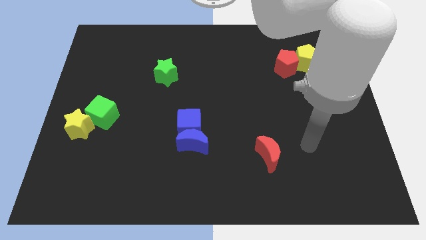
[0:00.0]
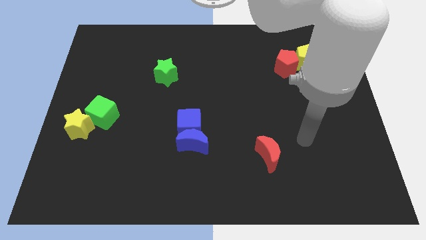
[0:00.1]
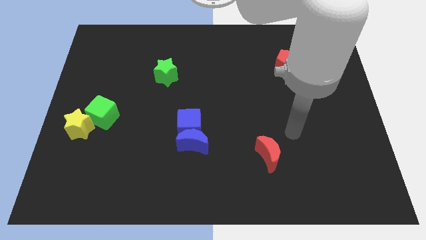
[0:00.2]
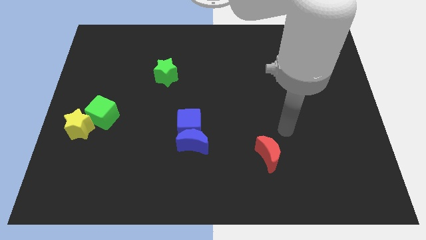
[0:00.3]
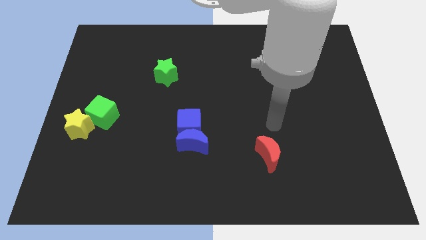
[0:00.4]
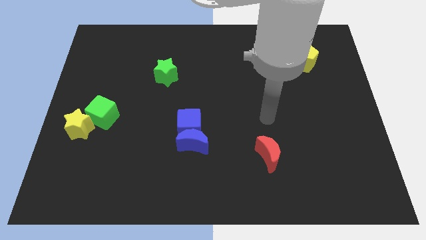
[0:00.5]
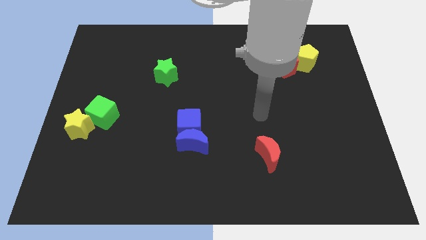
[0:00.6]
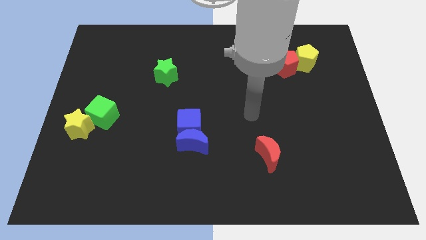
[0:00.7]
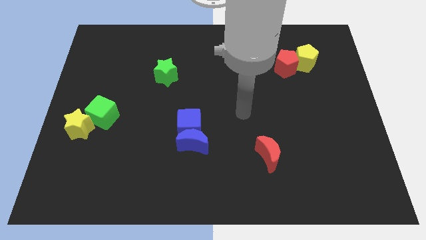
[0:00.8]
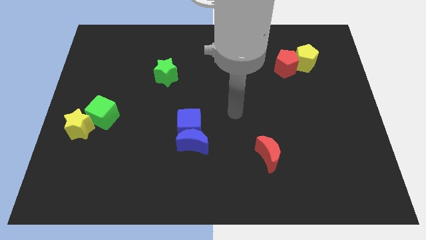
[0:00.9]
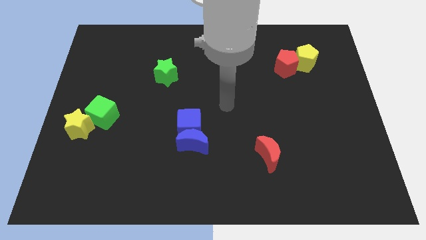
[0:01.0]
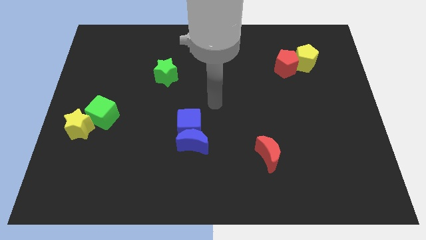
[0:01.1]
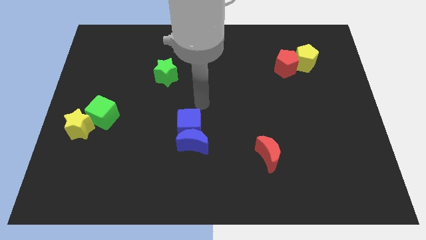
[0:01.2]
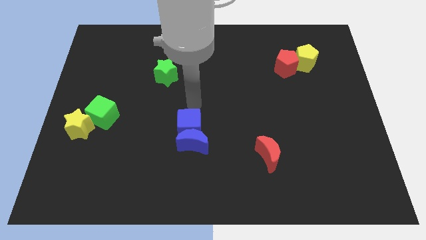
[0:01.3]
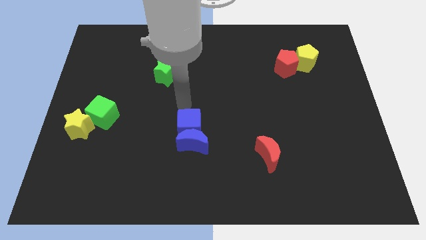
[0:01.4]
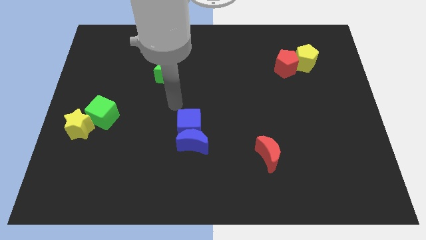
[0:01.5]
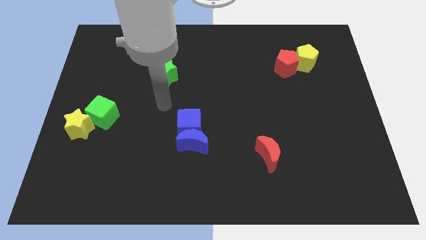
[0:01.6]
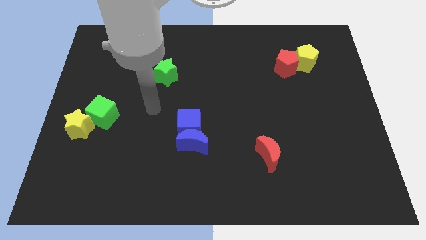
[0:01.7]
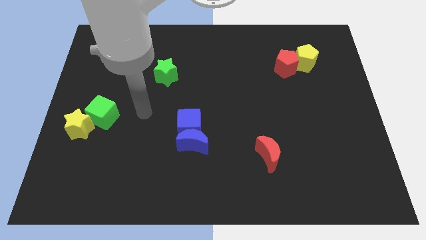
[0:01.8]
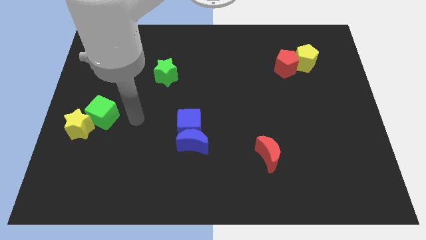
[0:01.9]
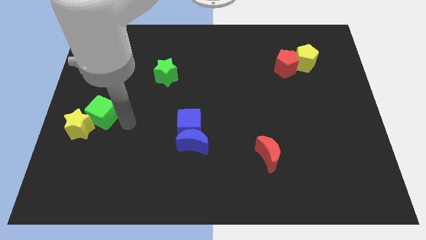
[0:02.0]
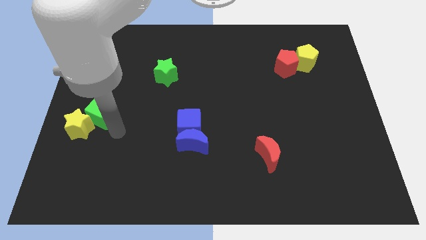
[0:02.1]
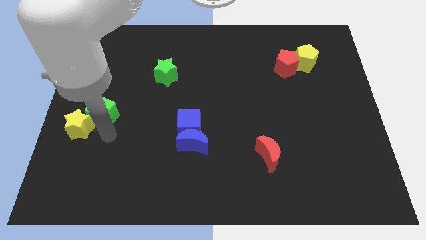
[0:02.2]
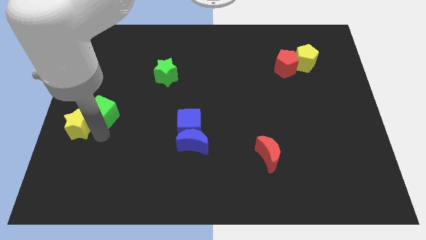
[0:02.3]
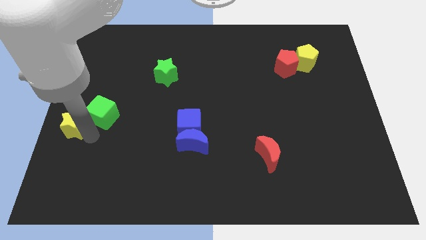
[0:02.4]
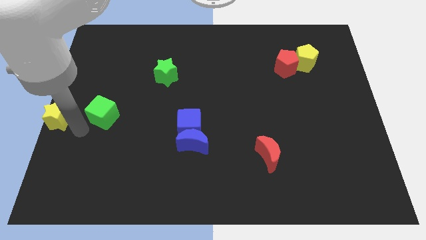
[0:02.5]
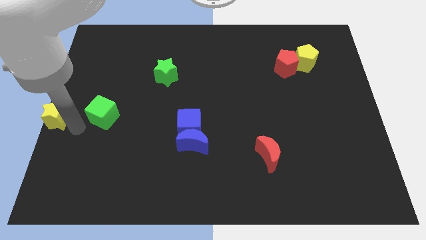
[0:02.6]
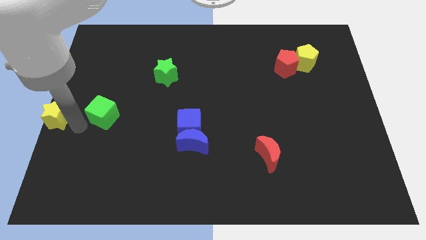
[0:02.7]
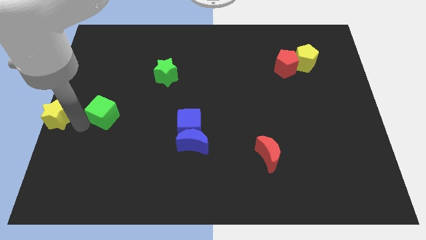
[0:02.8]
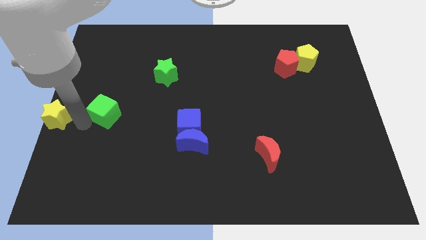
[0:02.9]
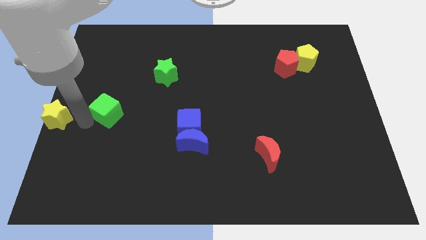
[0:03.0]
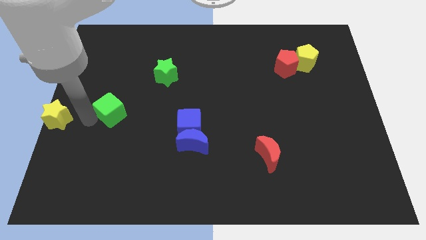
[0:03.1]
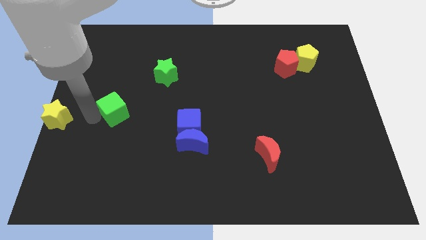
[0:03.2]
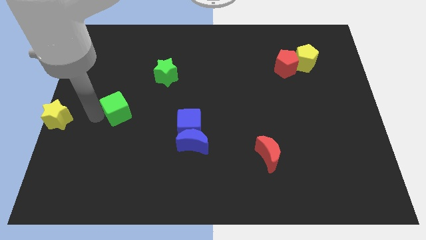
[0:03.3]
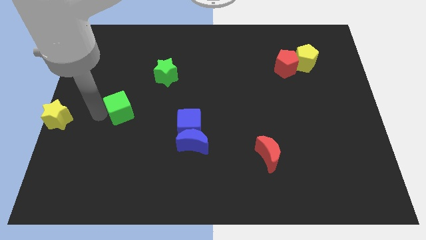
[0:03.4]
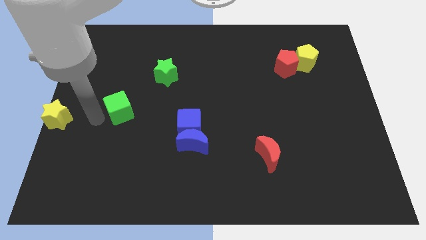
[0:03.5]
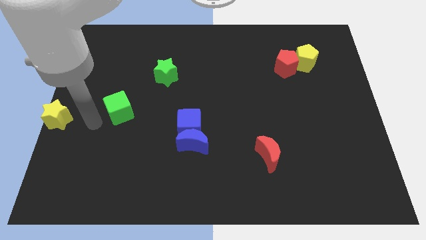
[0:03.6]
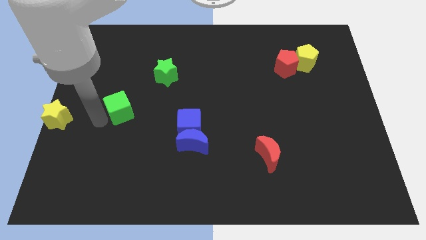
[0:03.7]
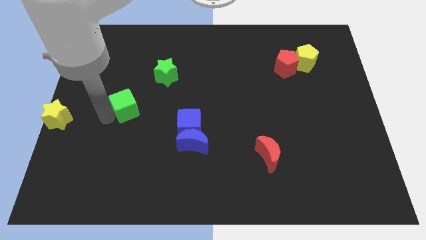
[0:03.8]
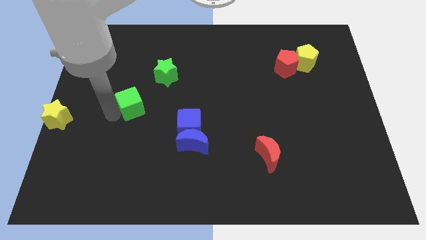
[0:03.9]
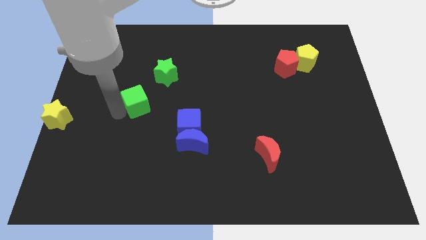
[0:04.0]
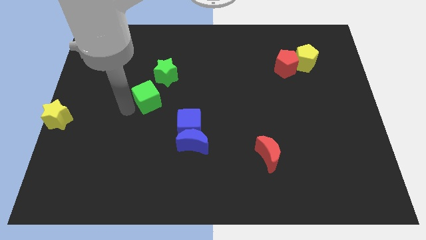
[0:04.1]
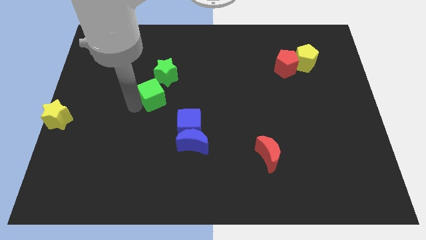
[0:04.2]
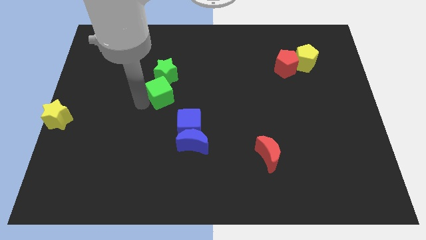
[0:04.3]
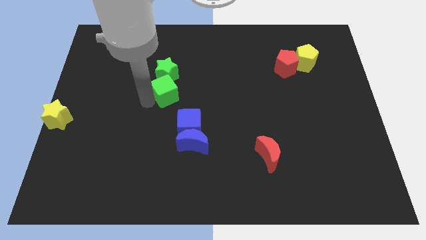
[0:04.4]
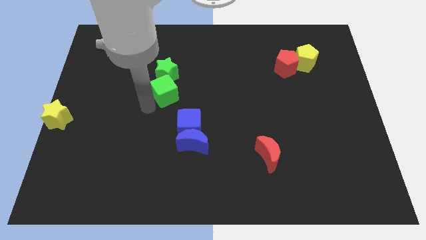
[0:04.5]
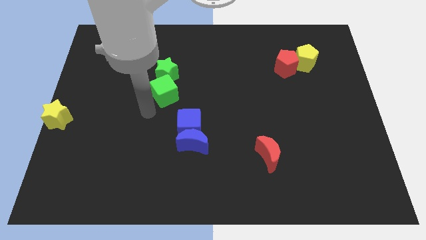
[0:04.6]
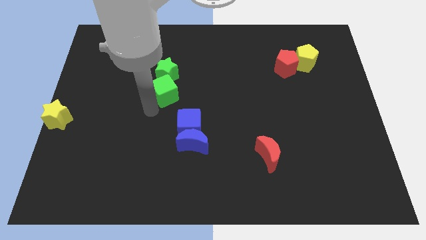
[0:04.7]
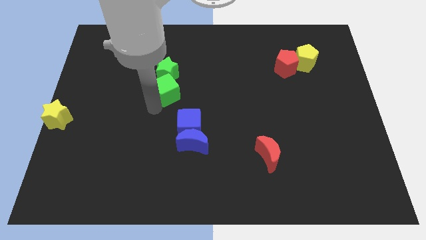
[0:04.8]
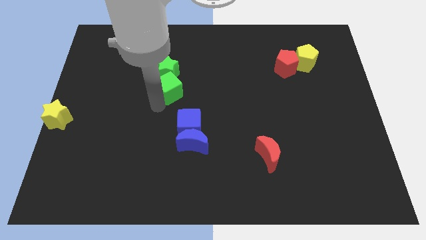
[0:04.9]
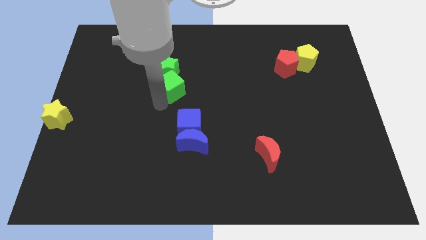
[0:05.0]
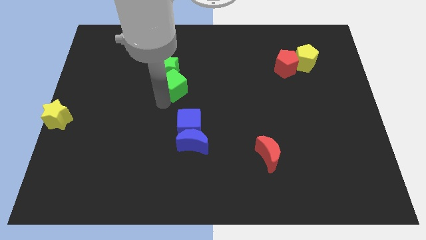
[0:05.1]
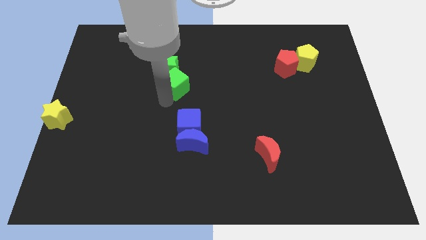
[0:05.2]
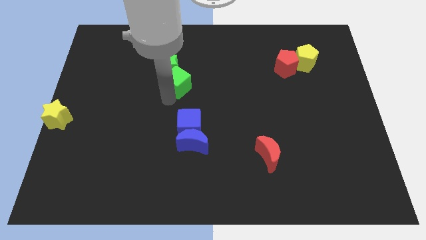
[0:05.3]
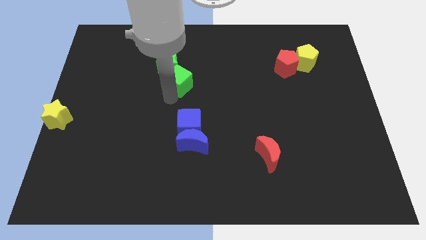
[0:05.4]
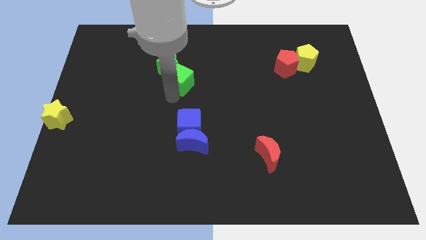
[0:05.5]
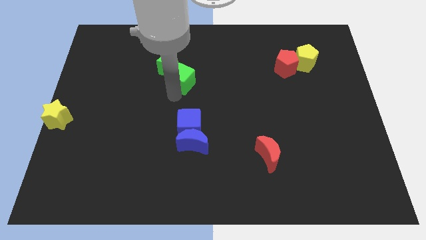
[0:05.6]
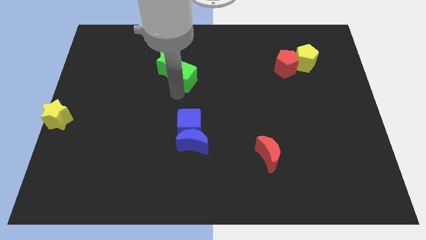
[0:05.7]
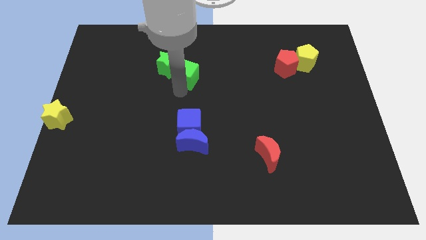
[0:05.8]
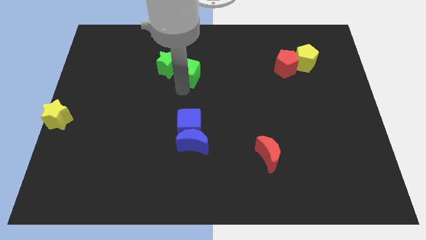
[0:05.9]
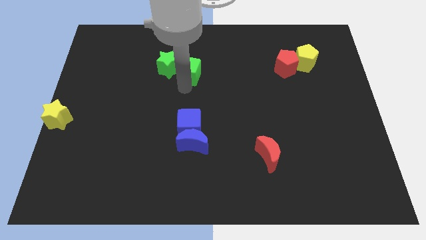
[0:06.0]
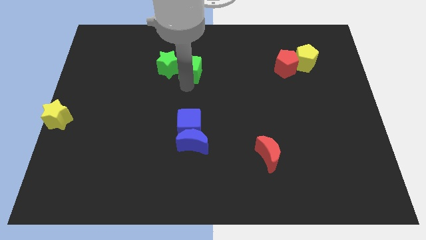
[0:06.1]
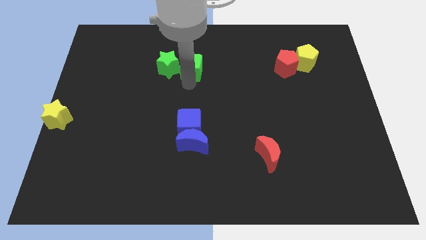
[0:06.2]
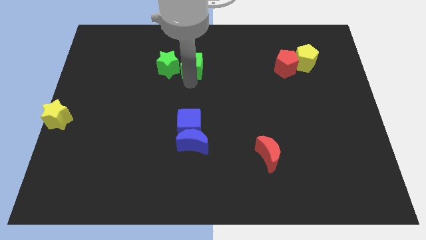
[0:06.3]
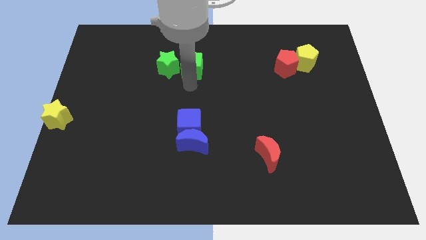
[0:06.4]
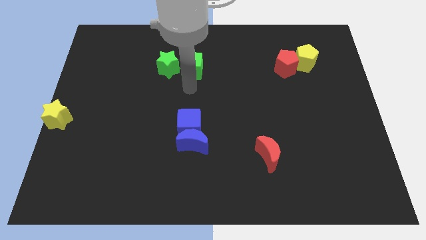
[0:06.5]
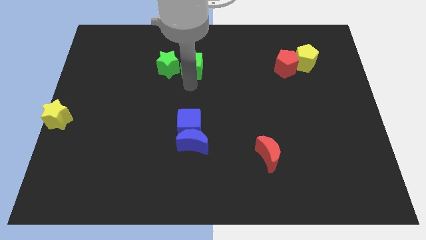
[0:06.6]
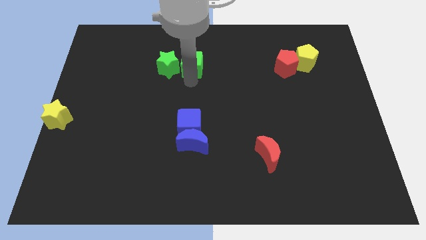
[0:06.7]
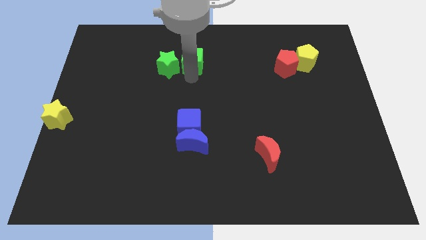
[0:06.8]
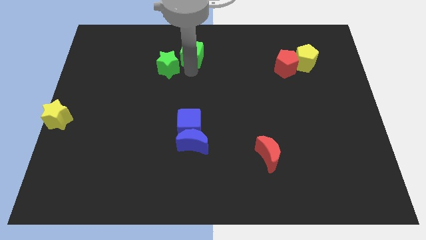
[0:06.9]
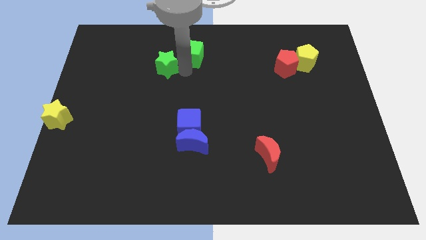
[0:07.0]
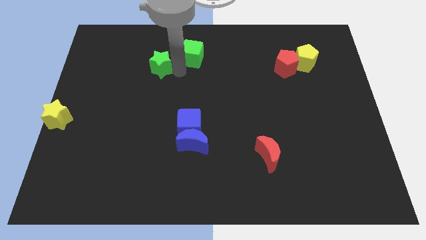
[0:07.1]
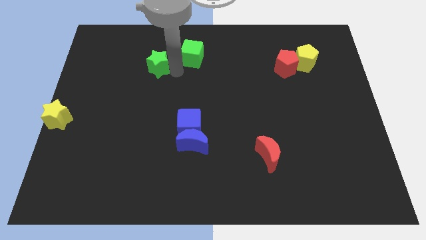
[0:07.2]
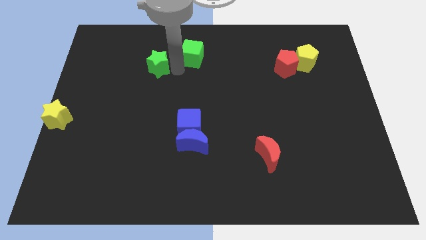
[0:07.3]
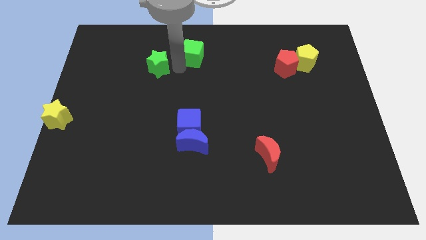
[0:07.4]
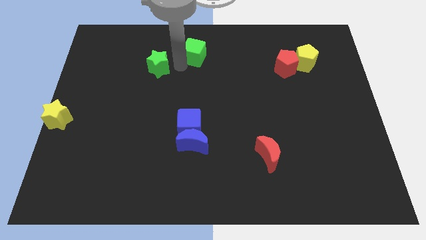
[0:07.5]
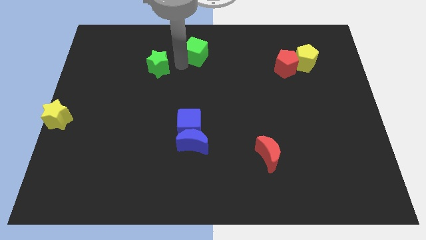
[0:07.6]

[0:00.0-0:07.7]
put the green cube to the top
